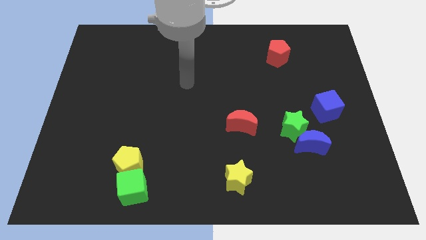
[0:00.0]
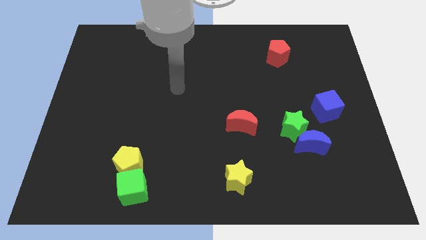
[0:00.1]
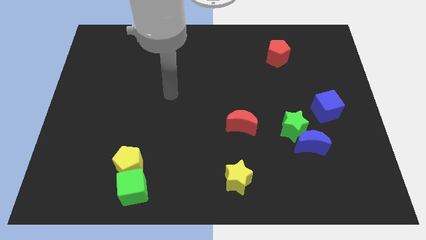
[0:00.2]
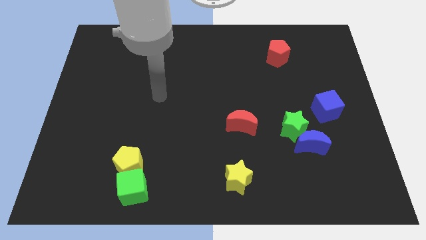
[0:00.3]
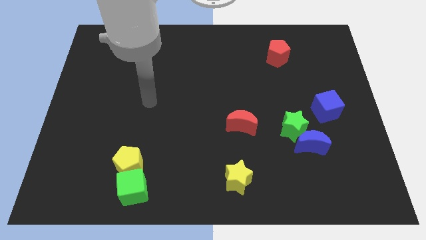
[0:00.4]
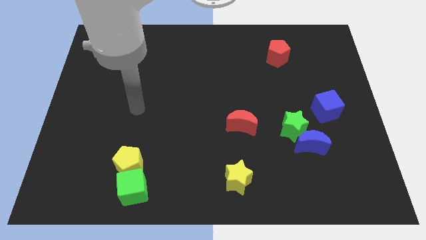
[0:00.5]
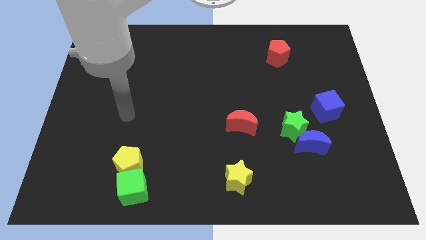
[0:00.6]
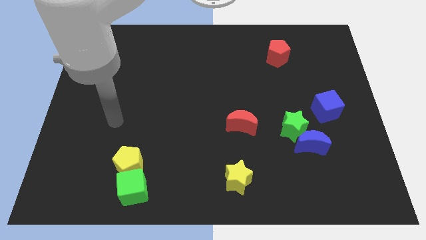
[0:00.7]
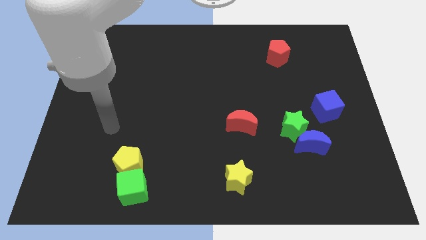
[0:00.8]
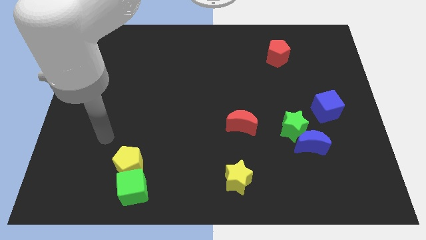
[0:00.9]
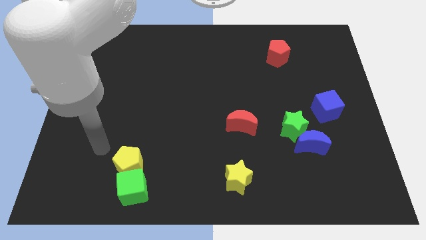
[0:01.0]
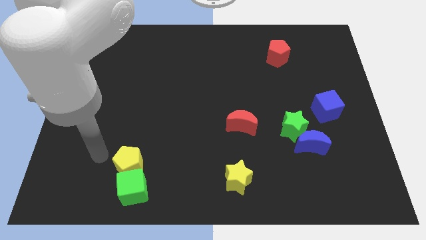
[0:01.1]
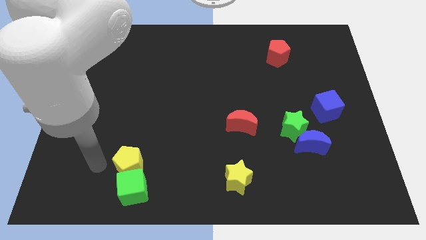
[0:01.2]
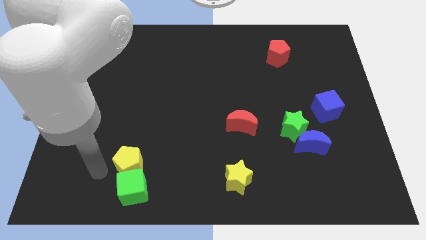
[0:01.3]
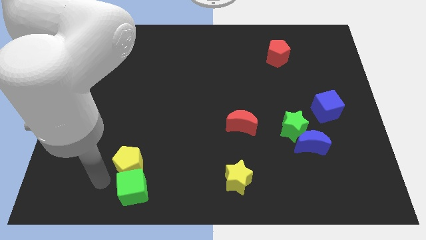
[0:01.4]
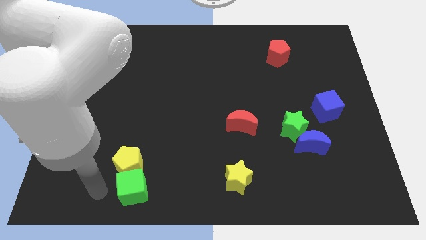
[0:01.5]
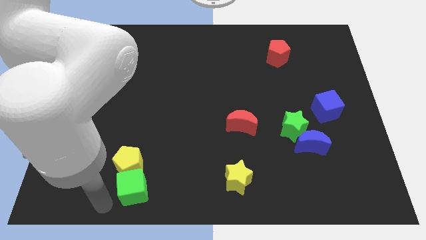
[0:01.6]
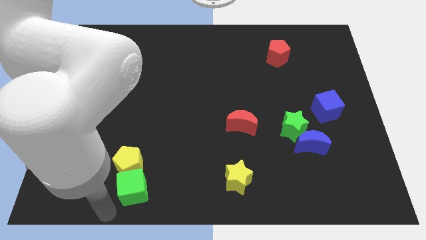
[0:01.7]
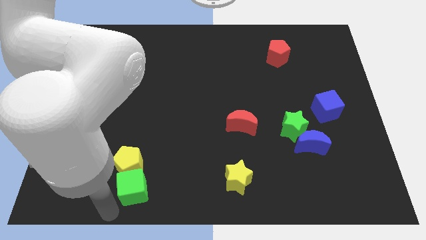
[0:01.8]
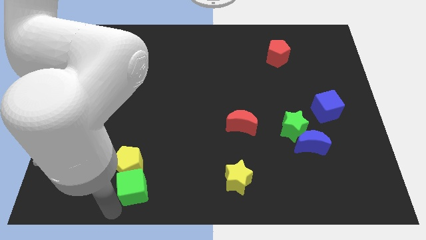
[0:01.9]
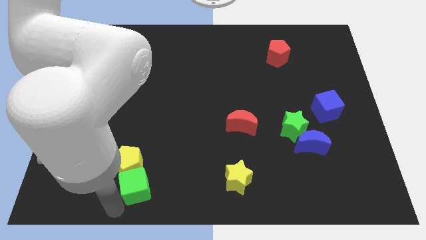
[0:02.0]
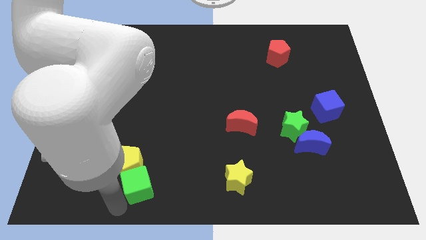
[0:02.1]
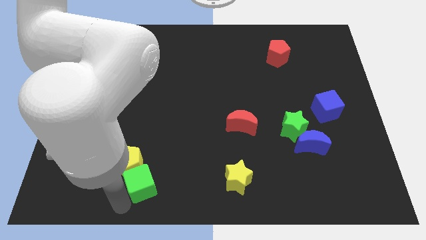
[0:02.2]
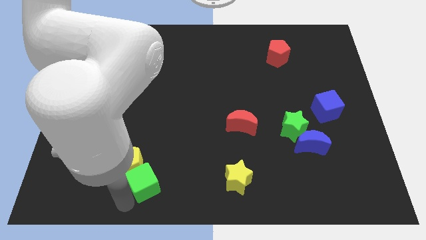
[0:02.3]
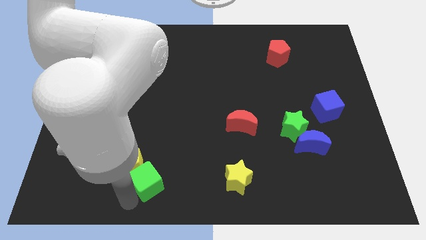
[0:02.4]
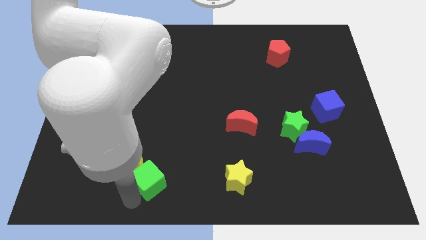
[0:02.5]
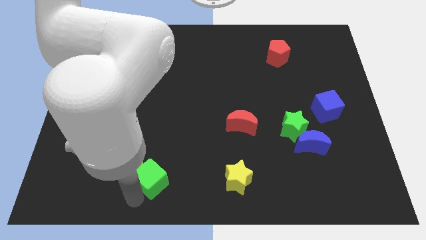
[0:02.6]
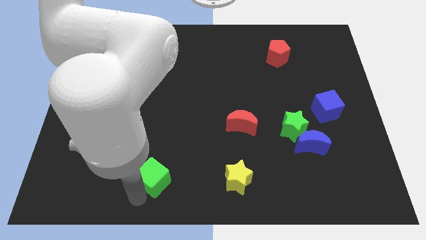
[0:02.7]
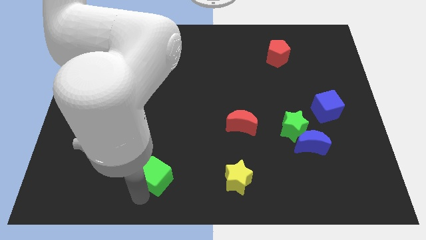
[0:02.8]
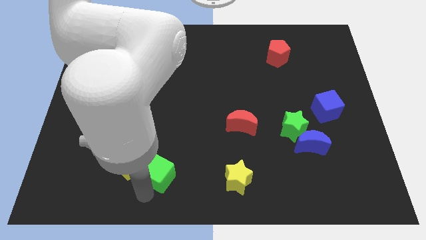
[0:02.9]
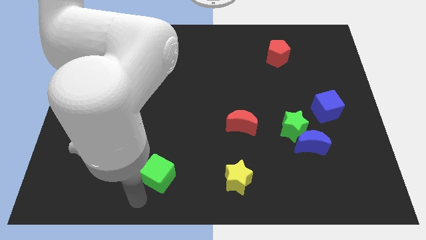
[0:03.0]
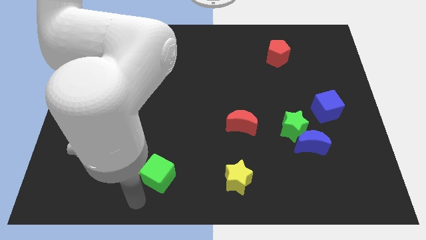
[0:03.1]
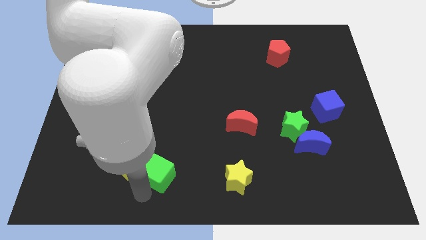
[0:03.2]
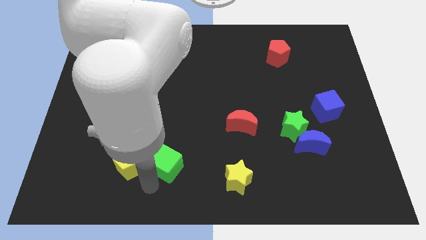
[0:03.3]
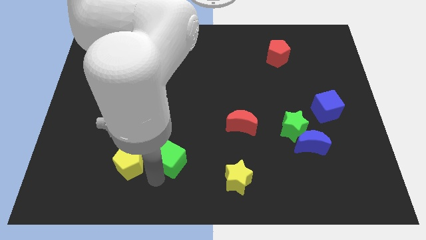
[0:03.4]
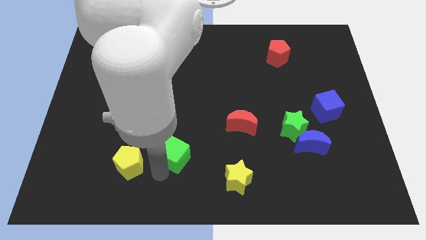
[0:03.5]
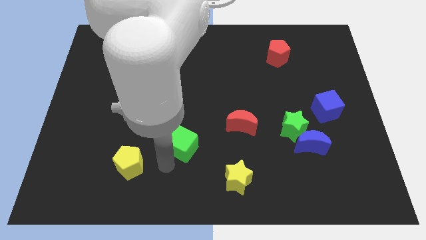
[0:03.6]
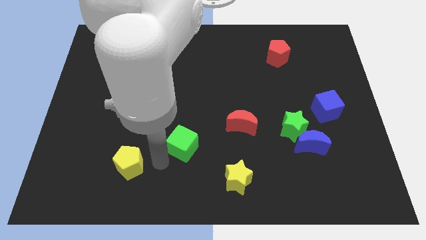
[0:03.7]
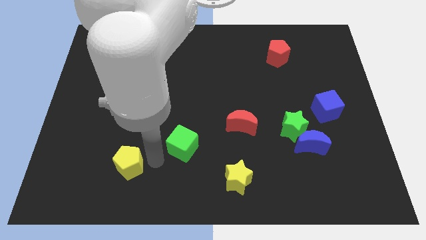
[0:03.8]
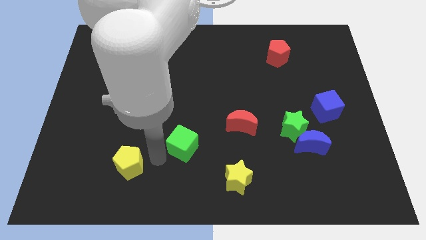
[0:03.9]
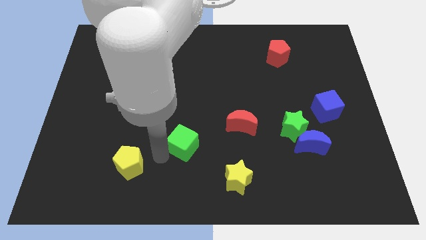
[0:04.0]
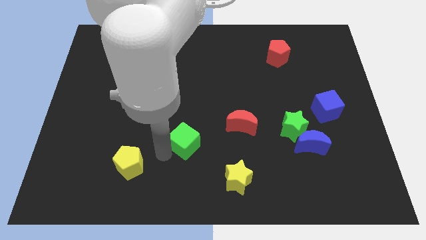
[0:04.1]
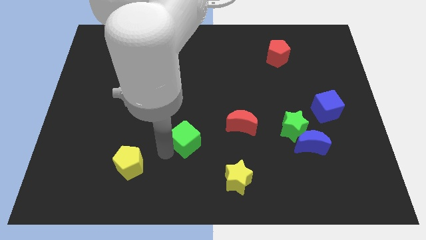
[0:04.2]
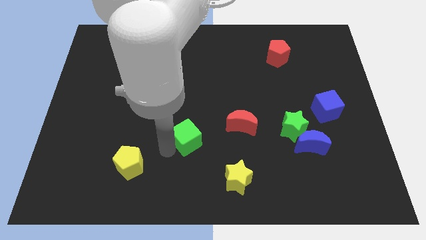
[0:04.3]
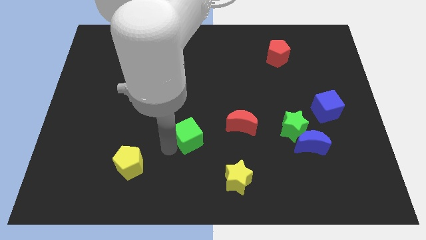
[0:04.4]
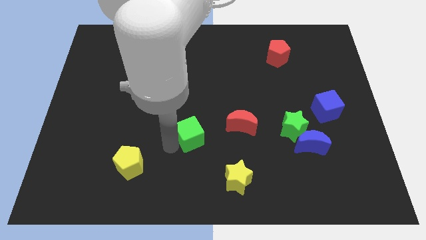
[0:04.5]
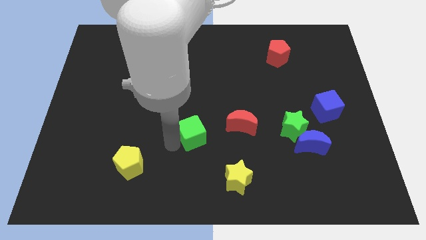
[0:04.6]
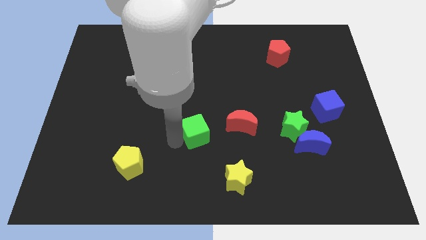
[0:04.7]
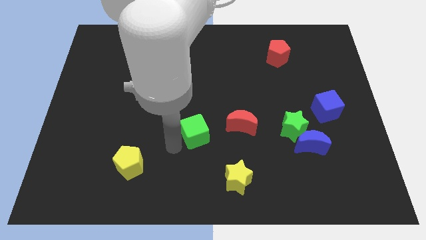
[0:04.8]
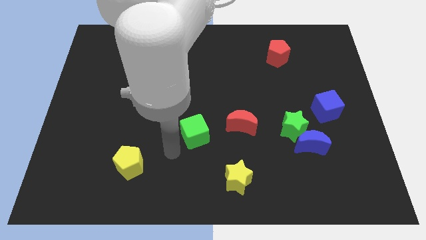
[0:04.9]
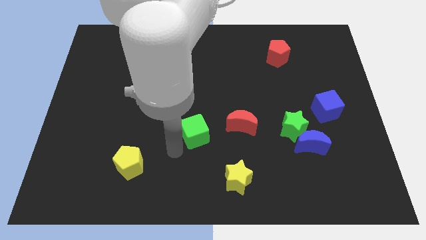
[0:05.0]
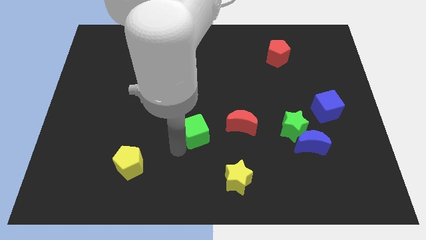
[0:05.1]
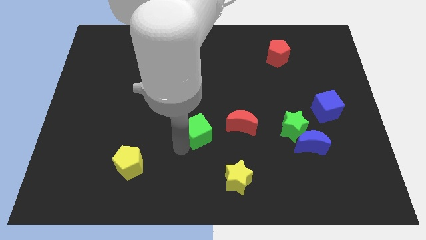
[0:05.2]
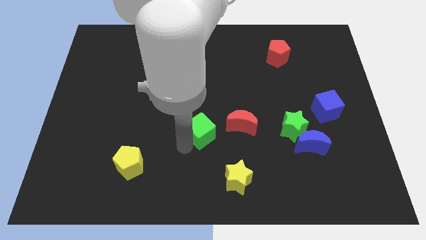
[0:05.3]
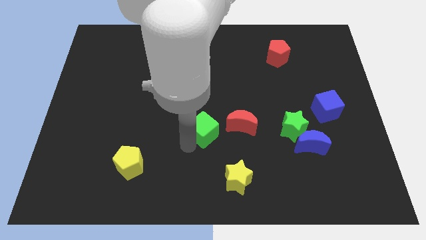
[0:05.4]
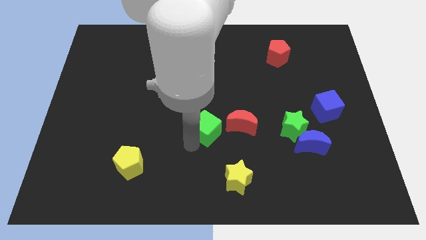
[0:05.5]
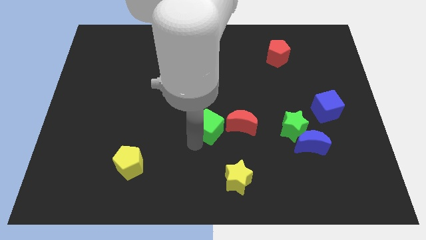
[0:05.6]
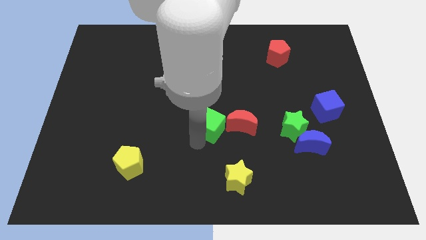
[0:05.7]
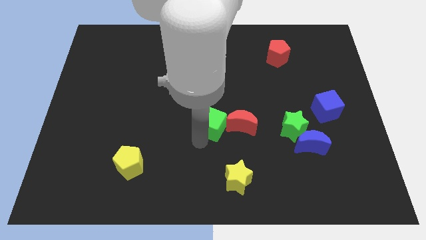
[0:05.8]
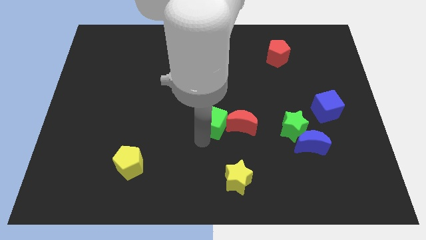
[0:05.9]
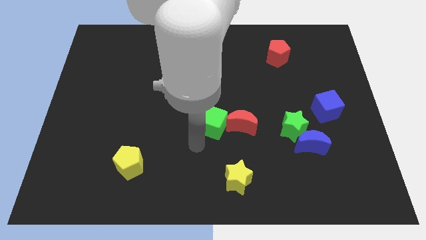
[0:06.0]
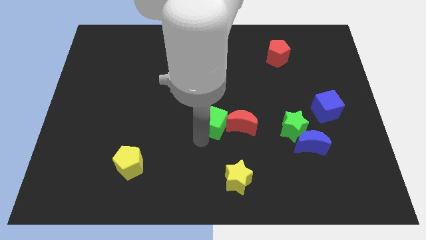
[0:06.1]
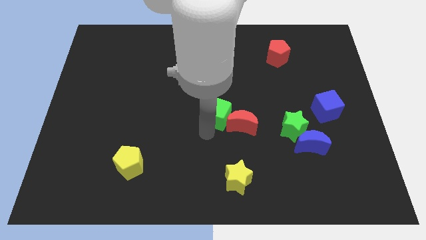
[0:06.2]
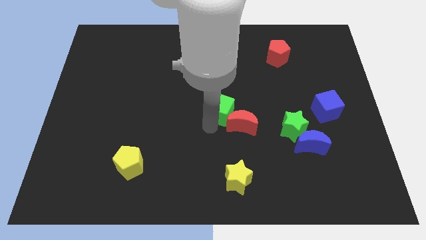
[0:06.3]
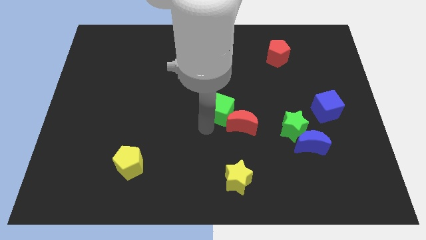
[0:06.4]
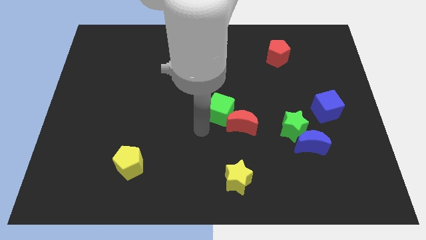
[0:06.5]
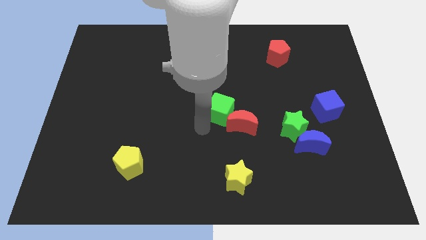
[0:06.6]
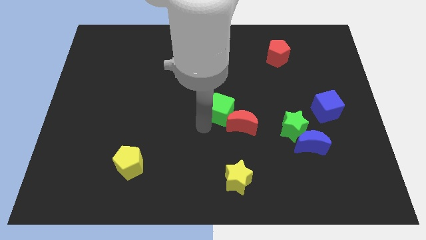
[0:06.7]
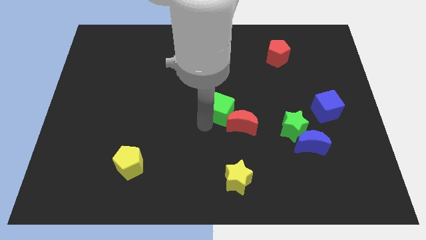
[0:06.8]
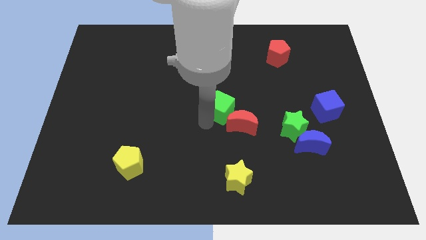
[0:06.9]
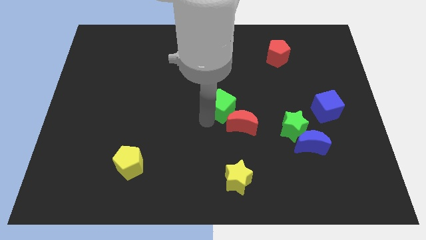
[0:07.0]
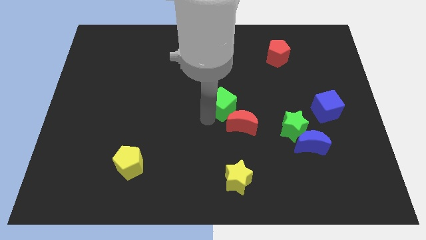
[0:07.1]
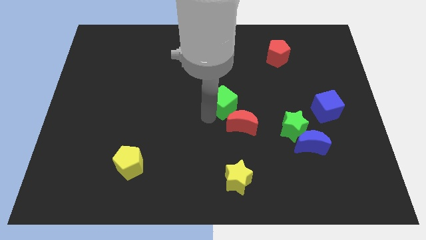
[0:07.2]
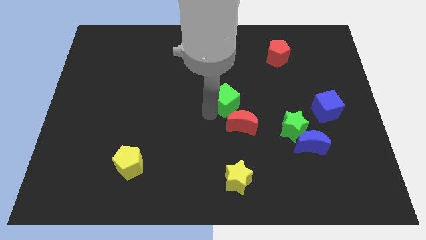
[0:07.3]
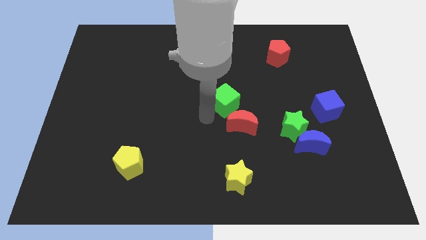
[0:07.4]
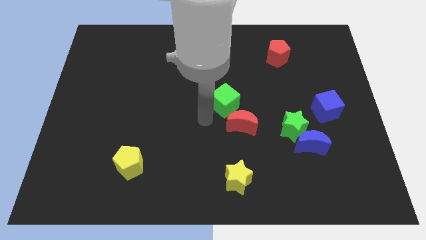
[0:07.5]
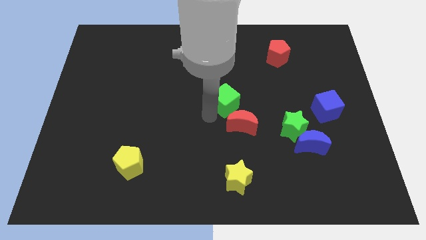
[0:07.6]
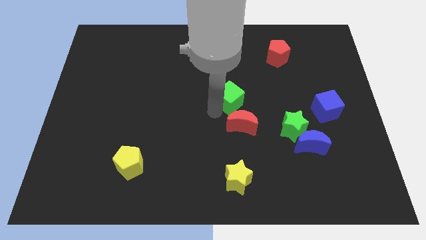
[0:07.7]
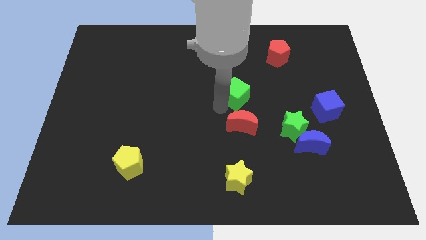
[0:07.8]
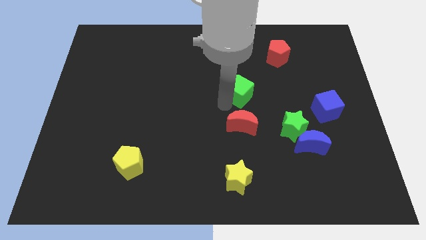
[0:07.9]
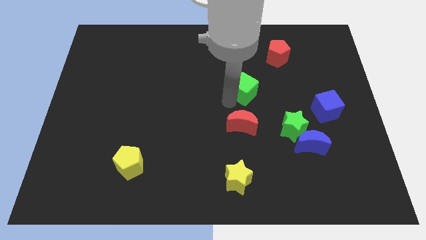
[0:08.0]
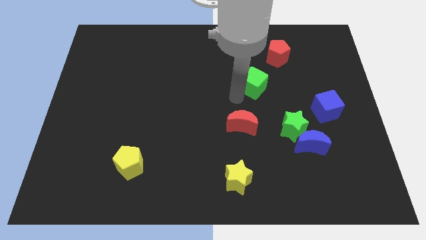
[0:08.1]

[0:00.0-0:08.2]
push the green cube to the bottom left of the red pentagon
